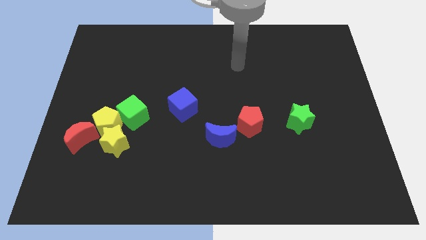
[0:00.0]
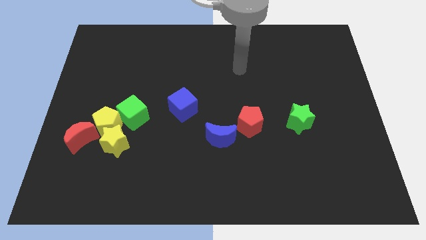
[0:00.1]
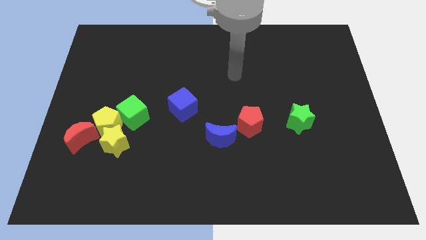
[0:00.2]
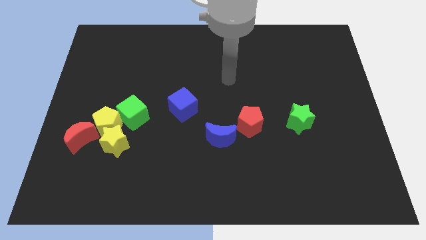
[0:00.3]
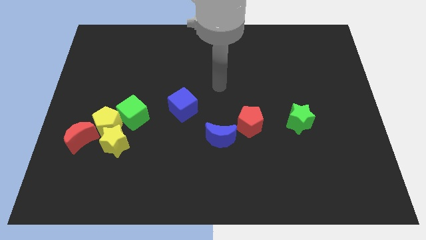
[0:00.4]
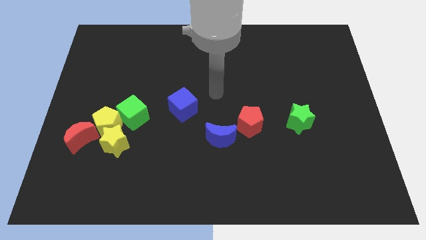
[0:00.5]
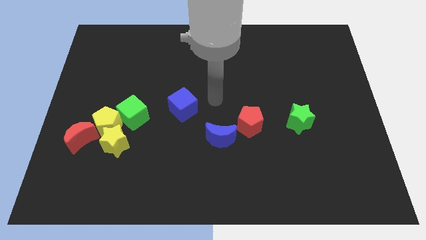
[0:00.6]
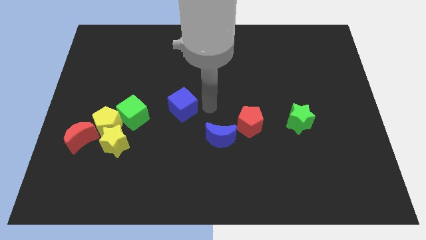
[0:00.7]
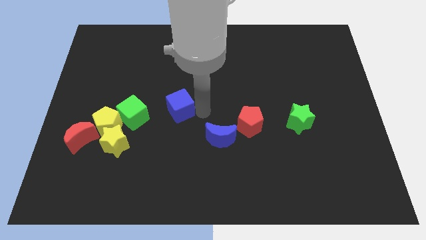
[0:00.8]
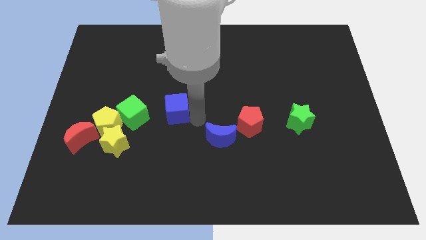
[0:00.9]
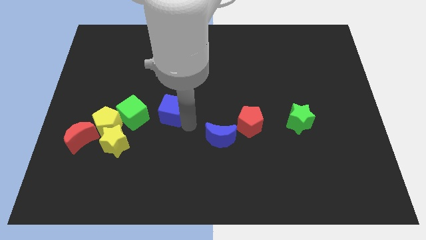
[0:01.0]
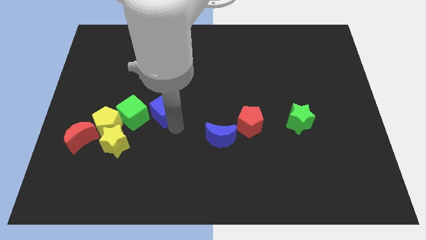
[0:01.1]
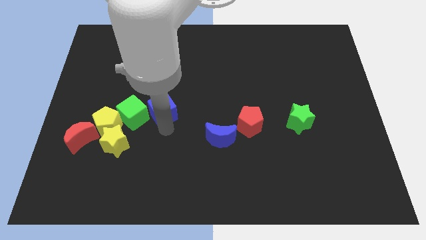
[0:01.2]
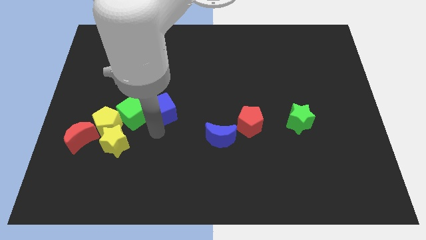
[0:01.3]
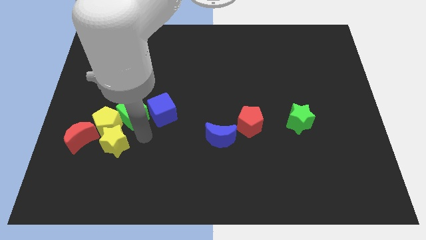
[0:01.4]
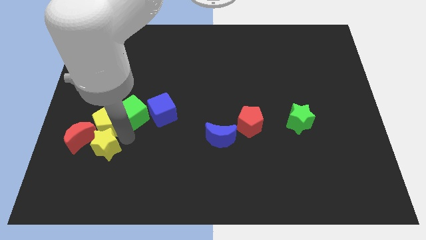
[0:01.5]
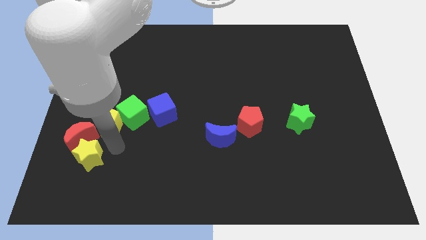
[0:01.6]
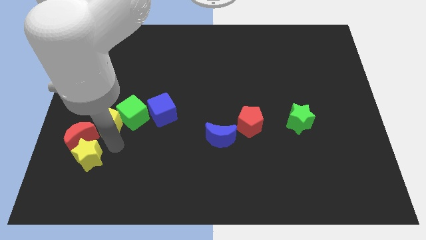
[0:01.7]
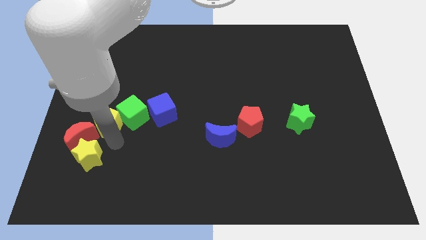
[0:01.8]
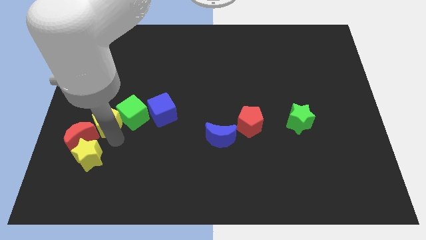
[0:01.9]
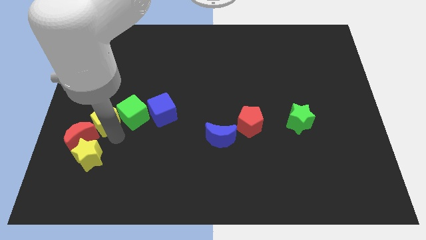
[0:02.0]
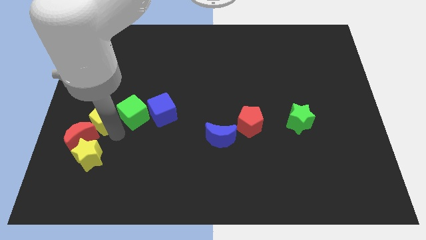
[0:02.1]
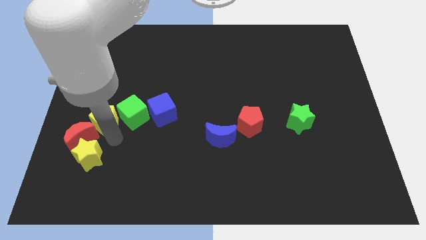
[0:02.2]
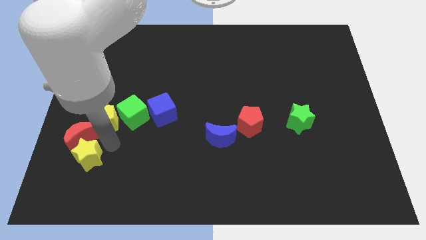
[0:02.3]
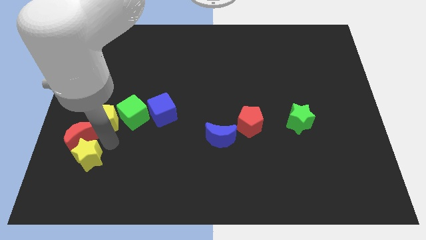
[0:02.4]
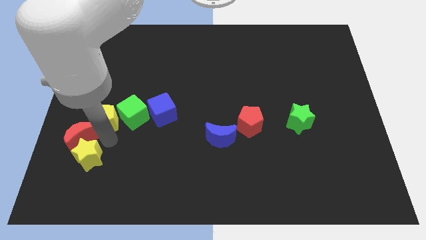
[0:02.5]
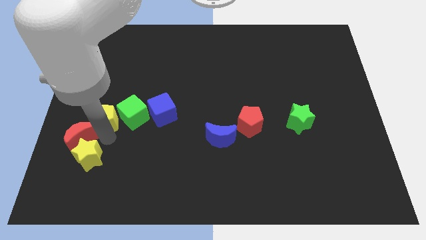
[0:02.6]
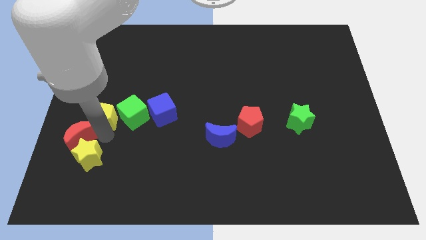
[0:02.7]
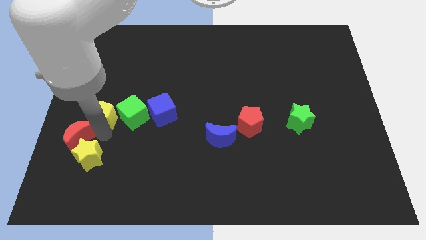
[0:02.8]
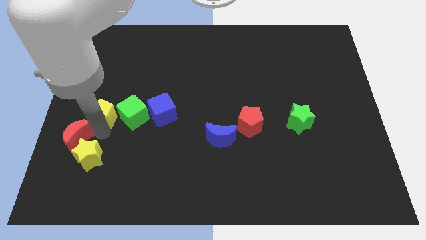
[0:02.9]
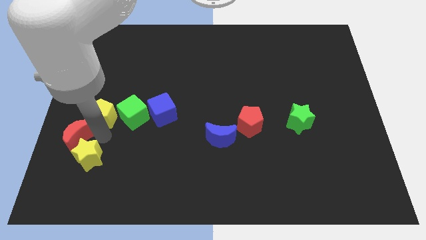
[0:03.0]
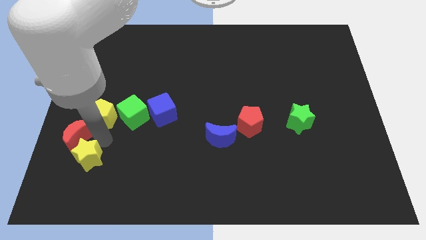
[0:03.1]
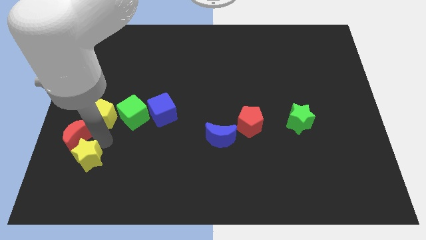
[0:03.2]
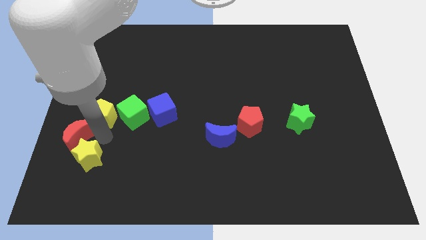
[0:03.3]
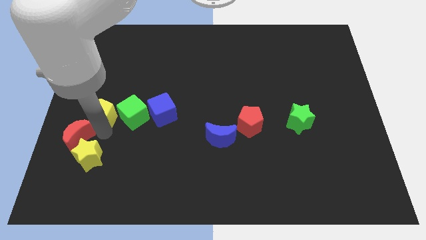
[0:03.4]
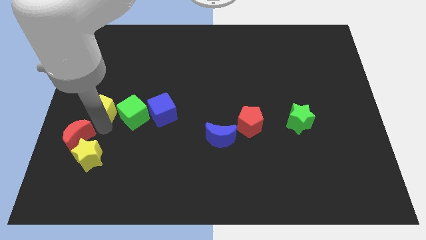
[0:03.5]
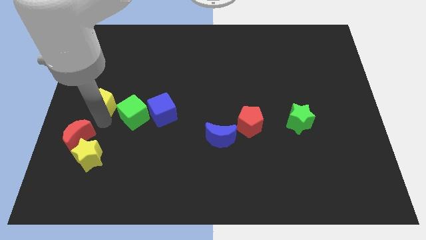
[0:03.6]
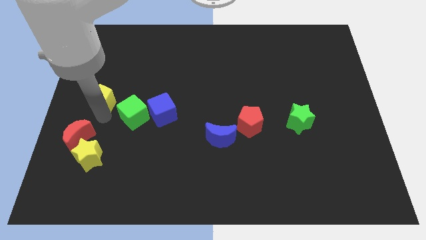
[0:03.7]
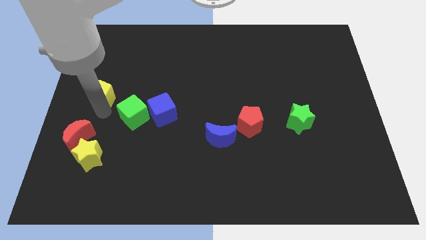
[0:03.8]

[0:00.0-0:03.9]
move the yellow pentagon away from the clump

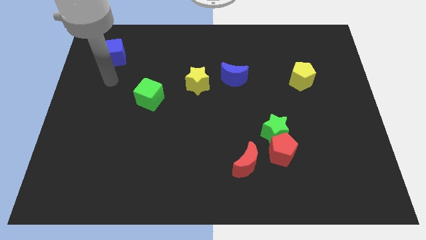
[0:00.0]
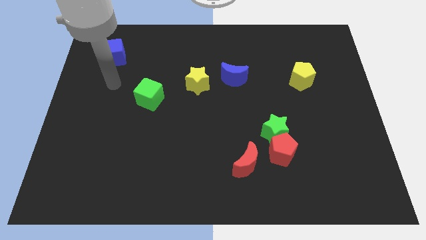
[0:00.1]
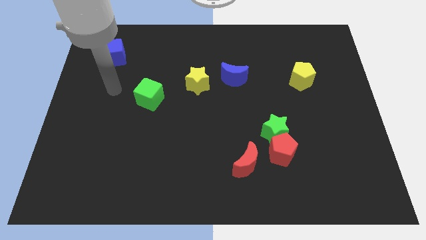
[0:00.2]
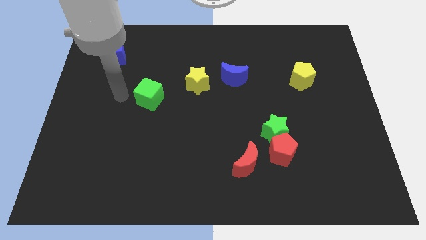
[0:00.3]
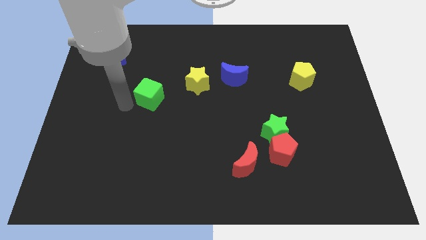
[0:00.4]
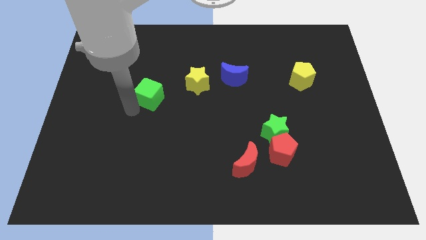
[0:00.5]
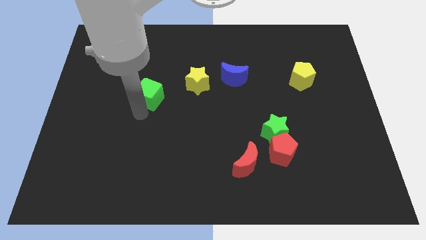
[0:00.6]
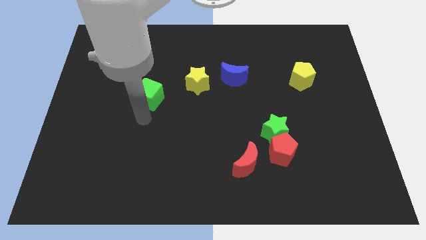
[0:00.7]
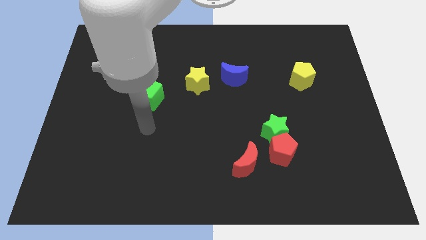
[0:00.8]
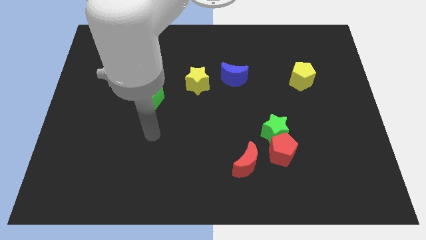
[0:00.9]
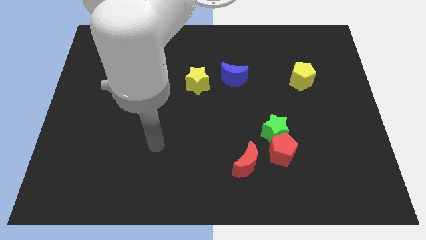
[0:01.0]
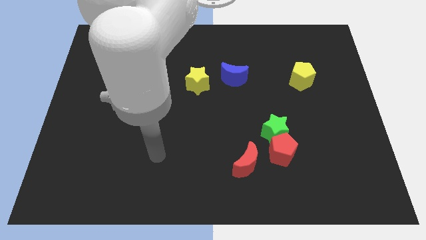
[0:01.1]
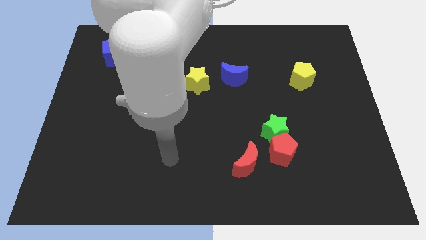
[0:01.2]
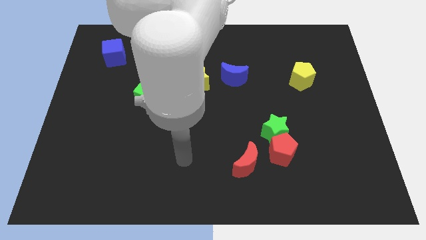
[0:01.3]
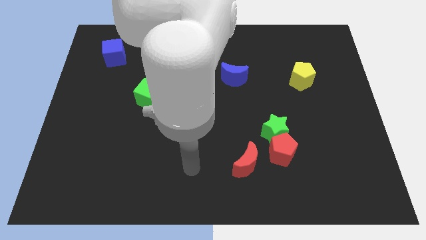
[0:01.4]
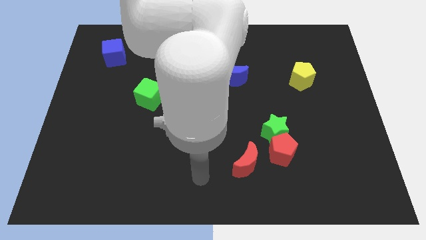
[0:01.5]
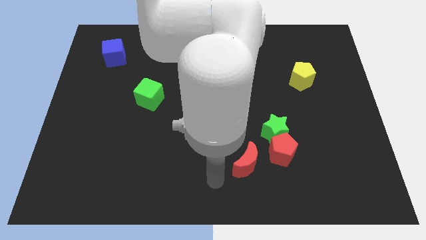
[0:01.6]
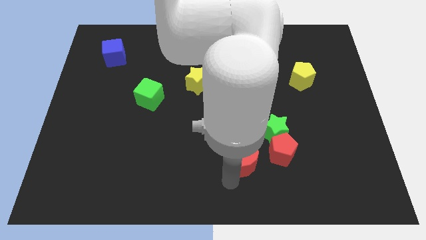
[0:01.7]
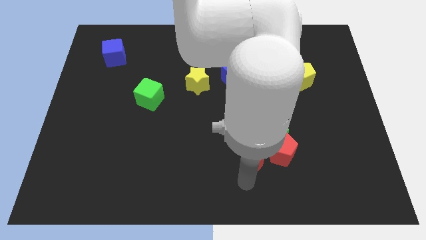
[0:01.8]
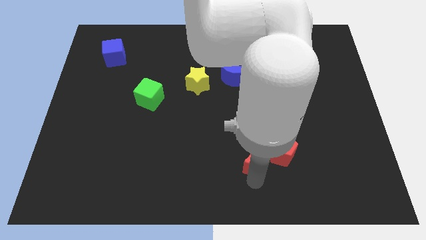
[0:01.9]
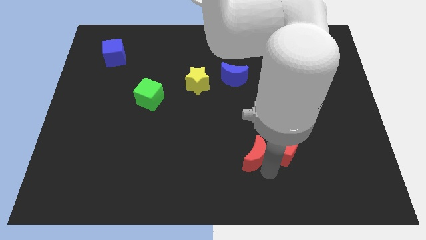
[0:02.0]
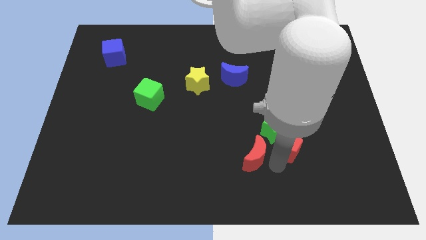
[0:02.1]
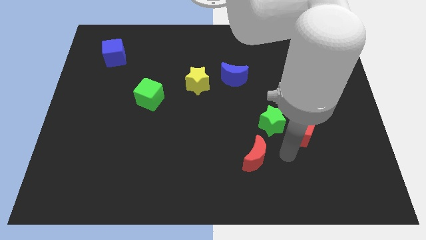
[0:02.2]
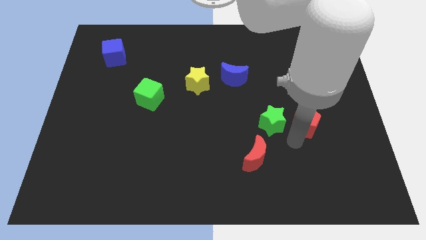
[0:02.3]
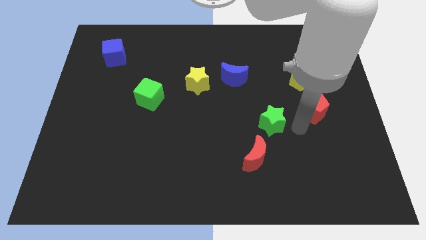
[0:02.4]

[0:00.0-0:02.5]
separate the green star from the red pentagon

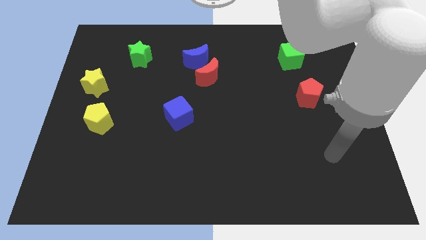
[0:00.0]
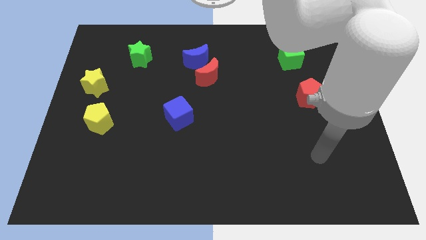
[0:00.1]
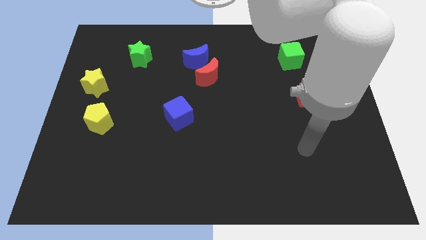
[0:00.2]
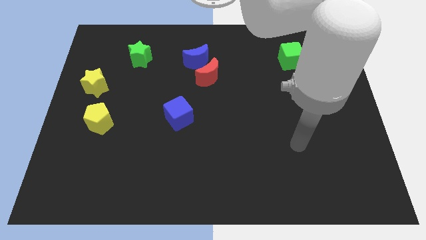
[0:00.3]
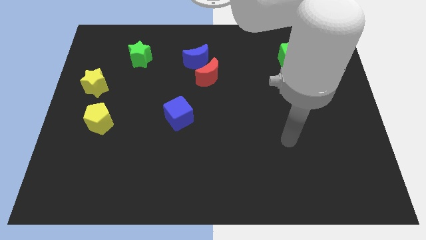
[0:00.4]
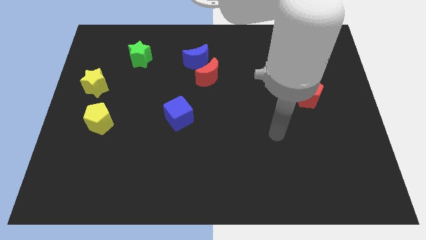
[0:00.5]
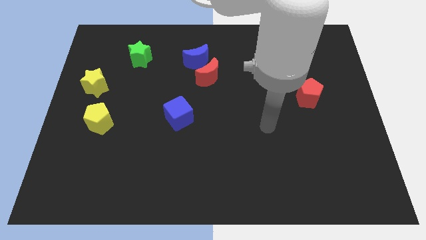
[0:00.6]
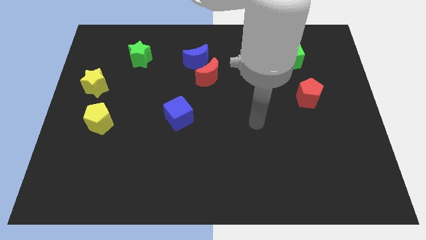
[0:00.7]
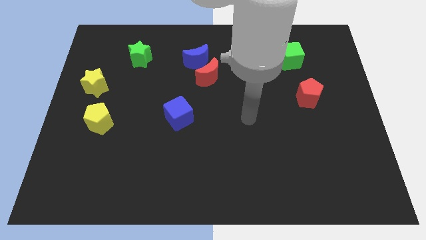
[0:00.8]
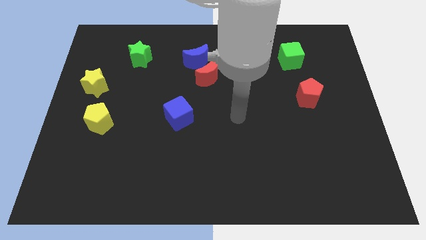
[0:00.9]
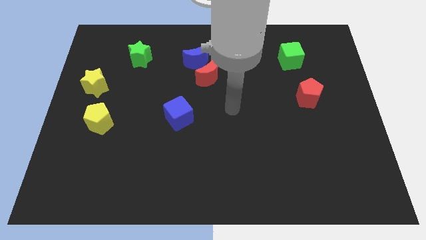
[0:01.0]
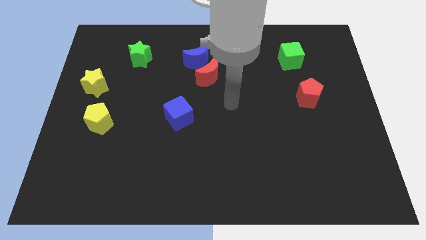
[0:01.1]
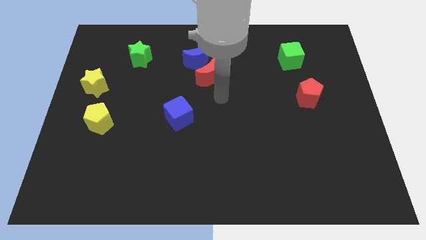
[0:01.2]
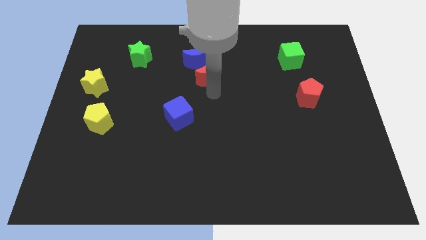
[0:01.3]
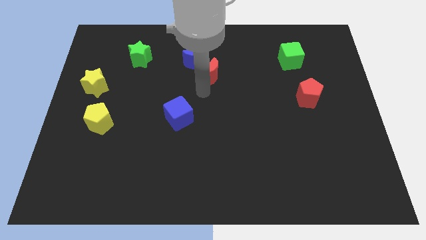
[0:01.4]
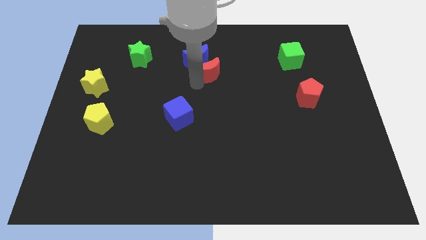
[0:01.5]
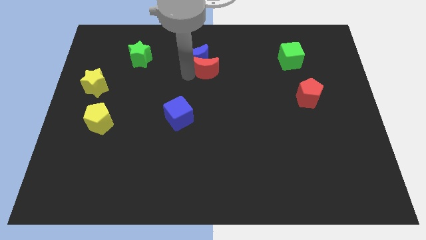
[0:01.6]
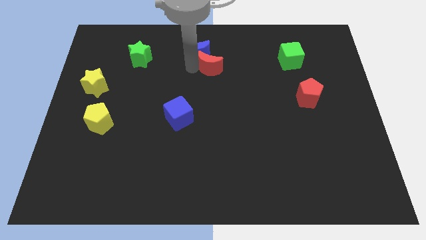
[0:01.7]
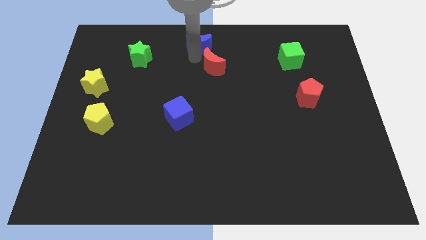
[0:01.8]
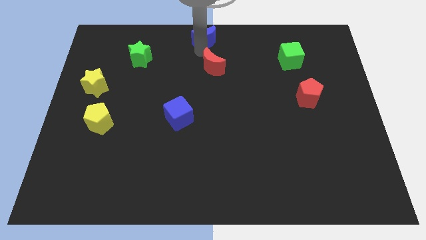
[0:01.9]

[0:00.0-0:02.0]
pull the red moon apart from the blue moon

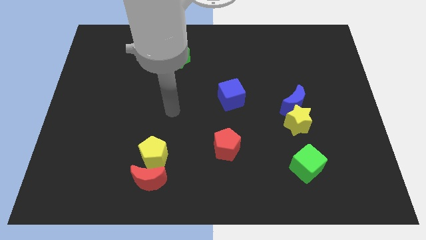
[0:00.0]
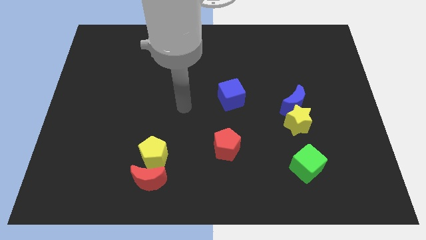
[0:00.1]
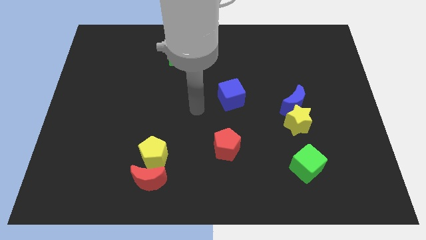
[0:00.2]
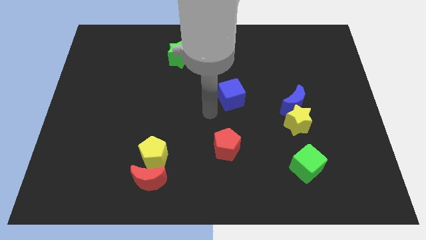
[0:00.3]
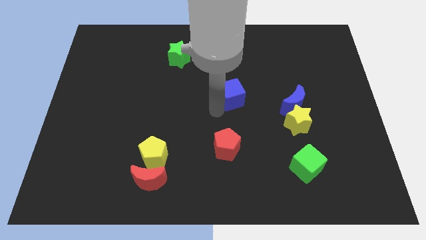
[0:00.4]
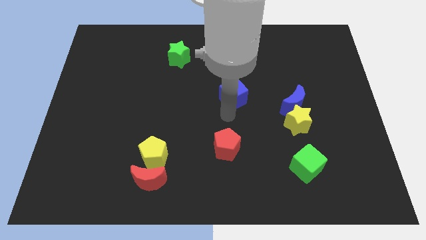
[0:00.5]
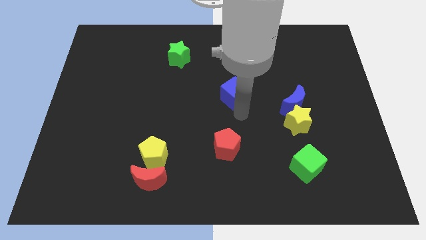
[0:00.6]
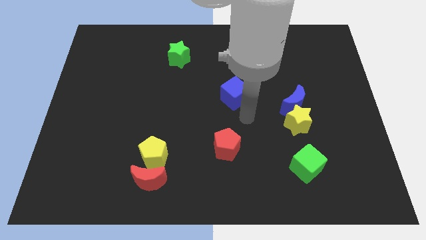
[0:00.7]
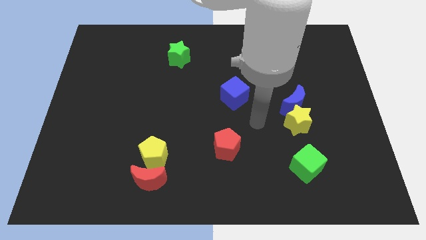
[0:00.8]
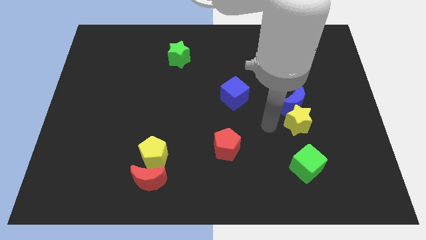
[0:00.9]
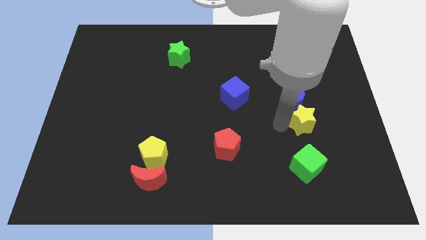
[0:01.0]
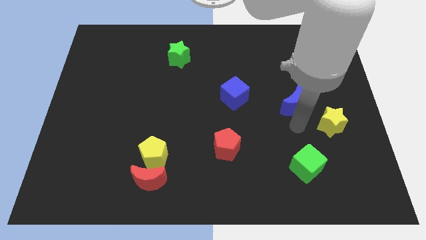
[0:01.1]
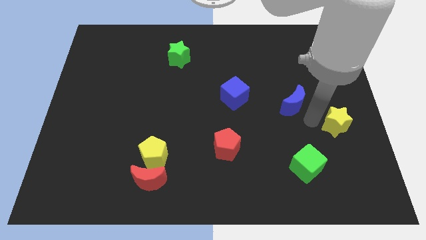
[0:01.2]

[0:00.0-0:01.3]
separate the blue moon from the yellow star
